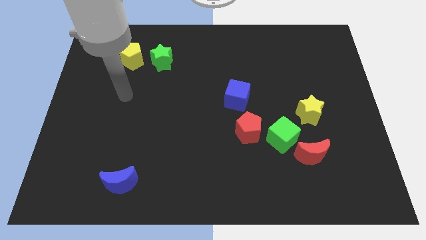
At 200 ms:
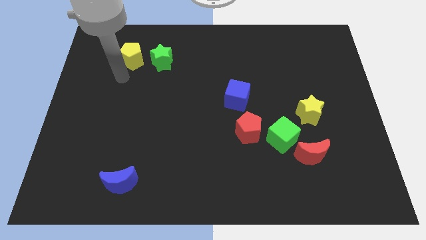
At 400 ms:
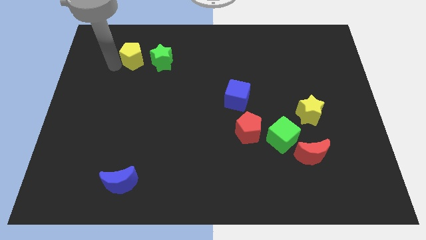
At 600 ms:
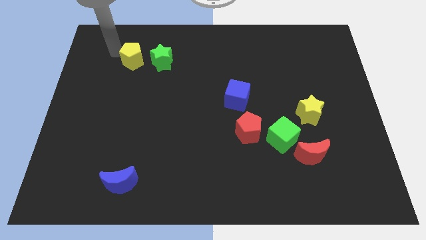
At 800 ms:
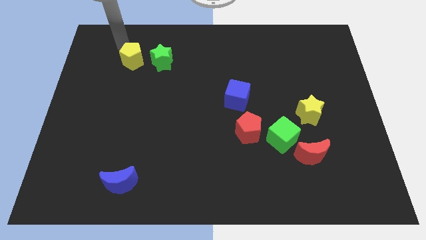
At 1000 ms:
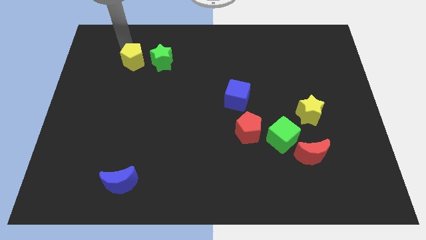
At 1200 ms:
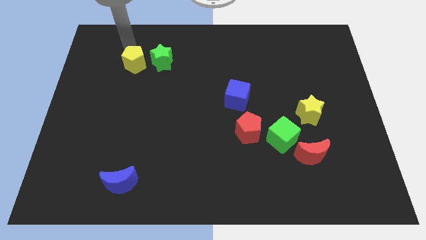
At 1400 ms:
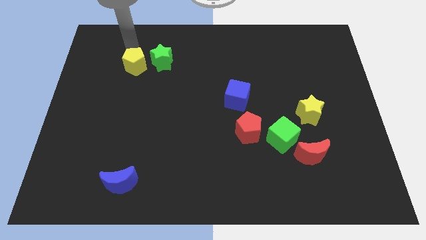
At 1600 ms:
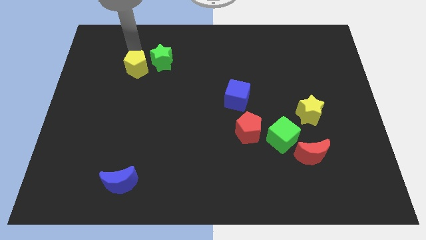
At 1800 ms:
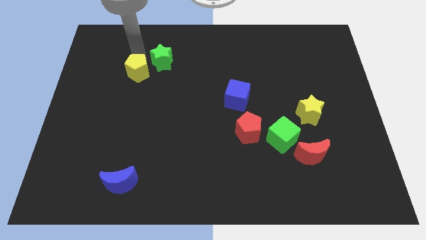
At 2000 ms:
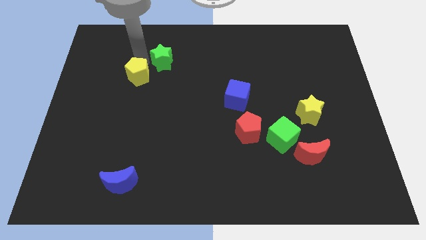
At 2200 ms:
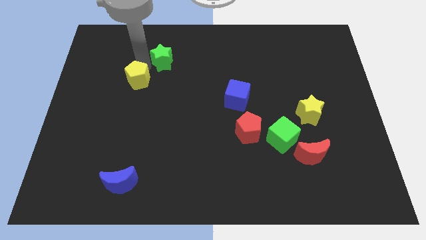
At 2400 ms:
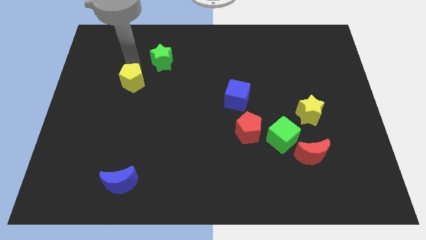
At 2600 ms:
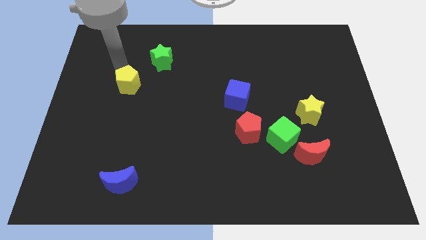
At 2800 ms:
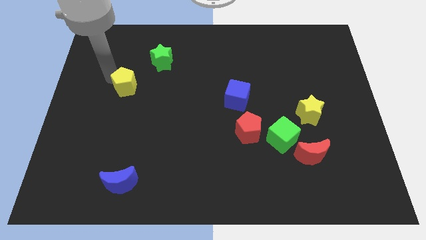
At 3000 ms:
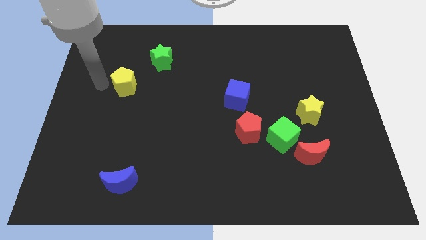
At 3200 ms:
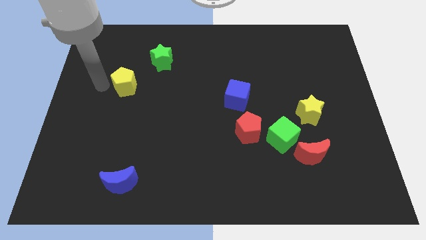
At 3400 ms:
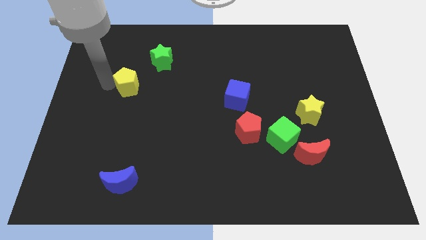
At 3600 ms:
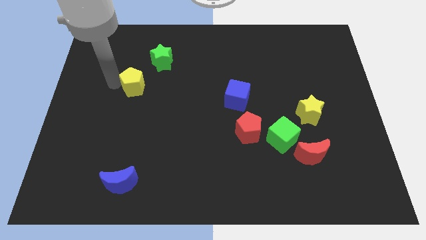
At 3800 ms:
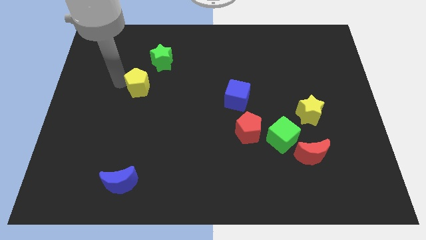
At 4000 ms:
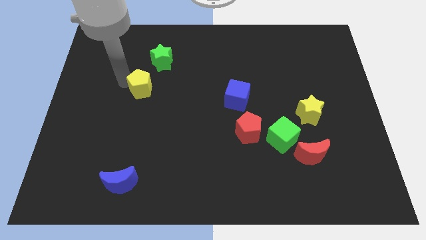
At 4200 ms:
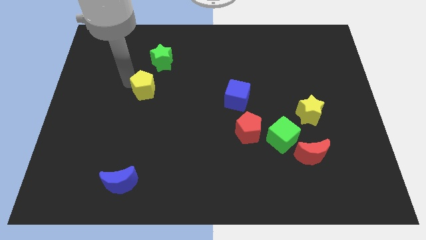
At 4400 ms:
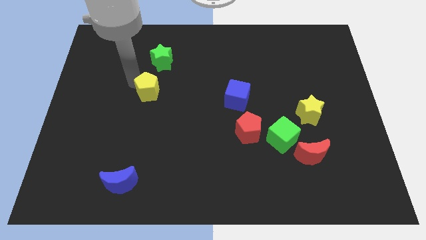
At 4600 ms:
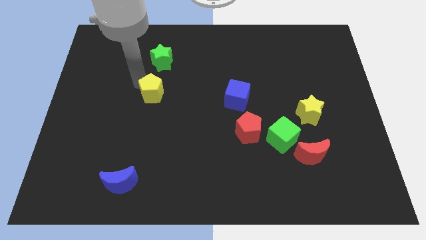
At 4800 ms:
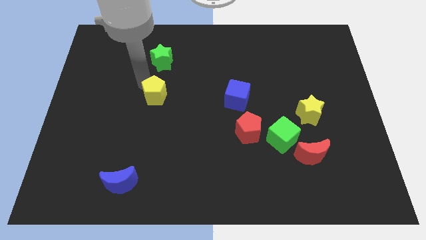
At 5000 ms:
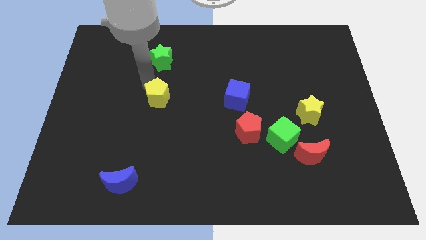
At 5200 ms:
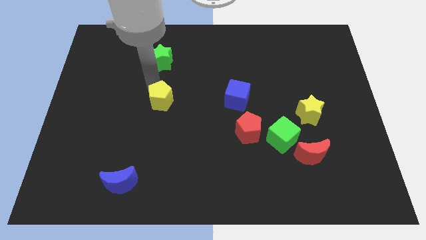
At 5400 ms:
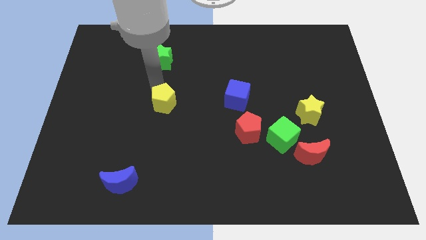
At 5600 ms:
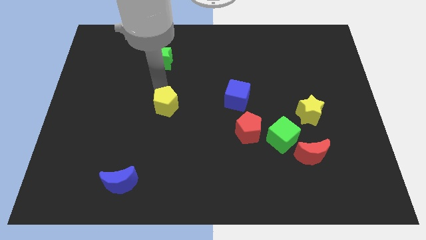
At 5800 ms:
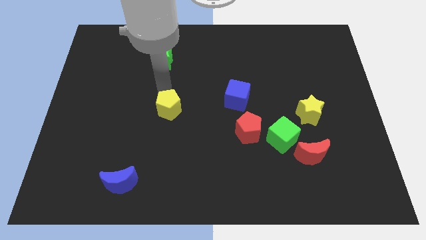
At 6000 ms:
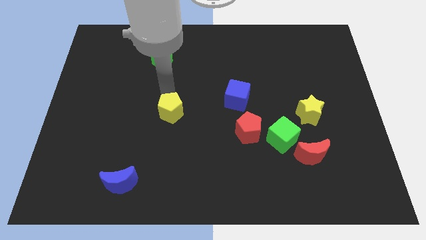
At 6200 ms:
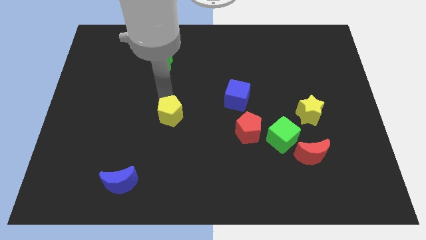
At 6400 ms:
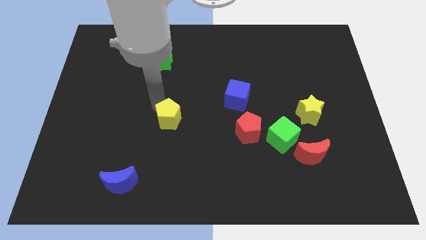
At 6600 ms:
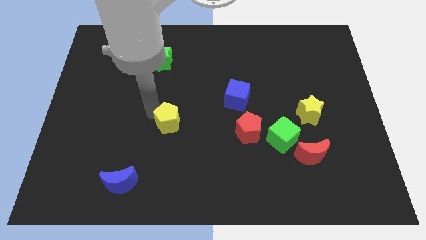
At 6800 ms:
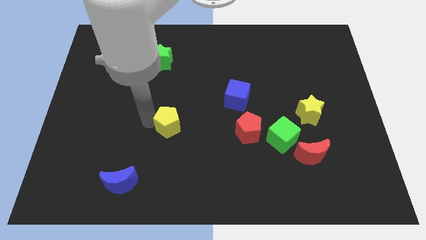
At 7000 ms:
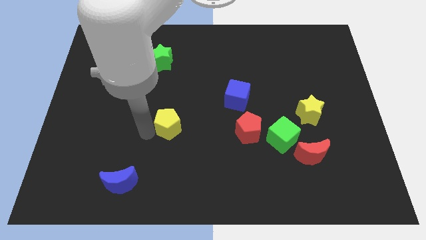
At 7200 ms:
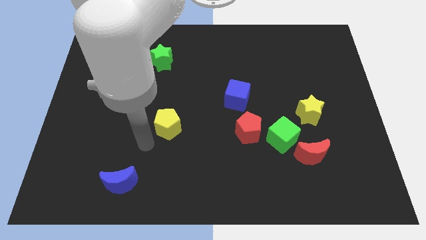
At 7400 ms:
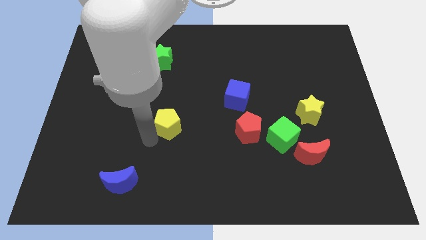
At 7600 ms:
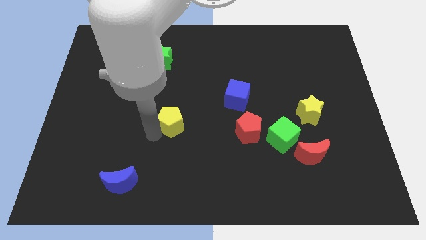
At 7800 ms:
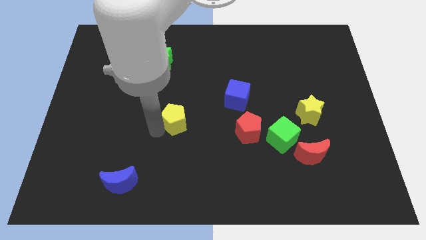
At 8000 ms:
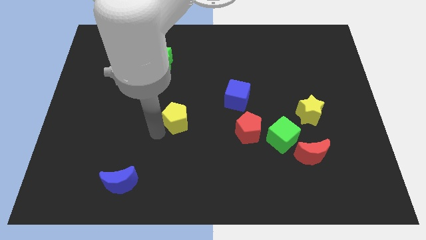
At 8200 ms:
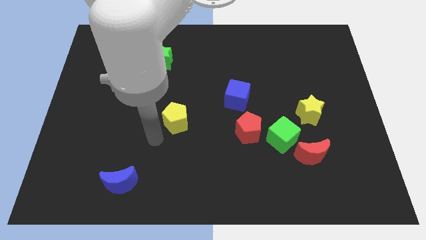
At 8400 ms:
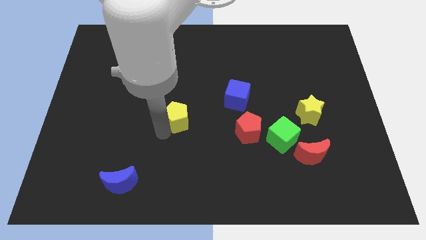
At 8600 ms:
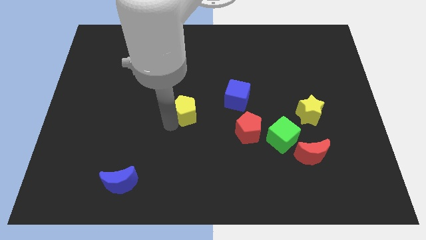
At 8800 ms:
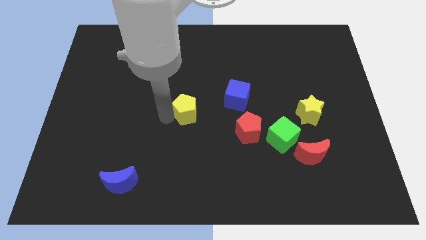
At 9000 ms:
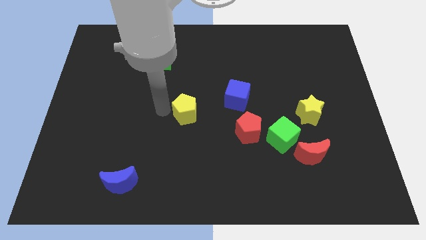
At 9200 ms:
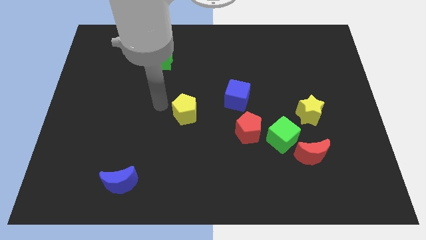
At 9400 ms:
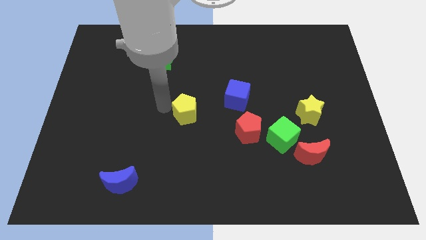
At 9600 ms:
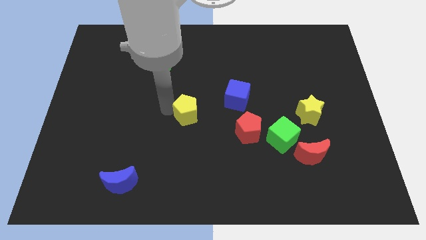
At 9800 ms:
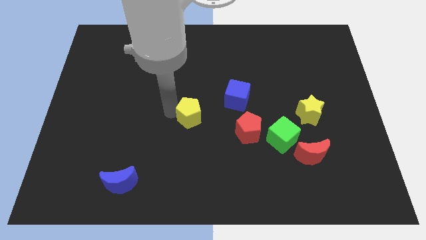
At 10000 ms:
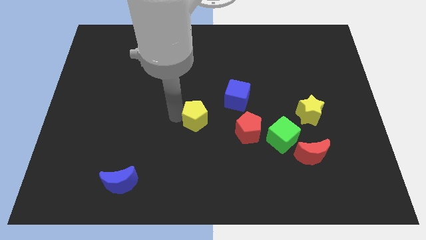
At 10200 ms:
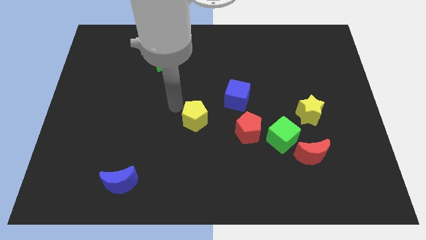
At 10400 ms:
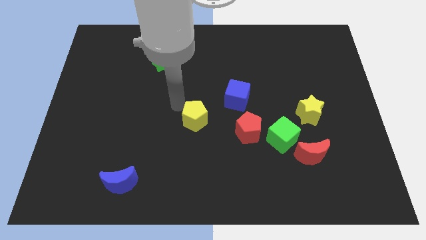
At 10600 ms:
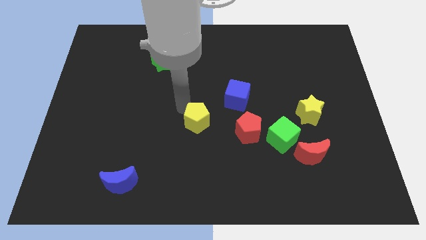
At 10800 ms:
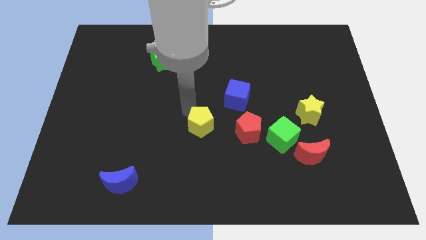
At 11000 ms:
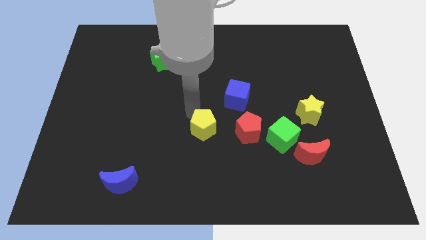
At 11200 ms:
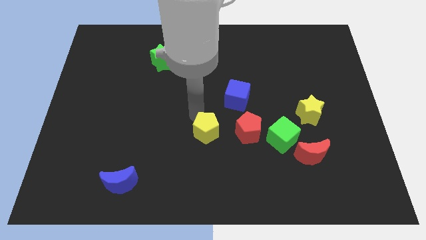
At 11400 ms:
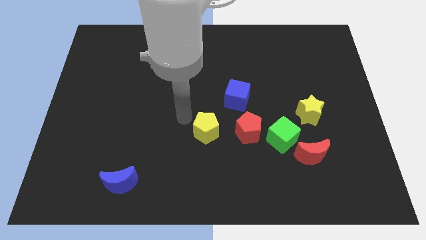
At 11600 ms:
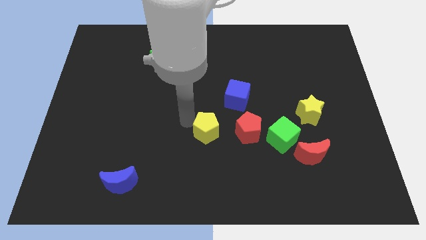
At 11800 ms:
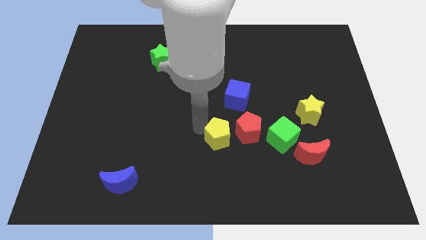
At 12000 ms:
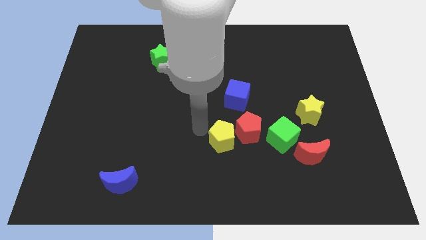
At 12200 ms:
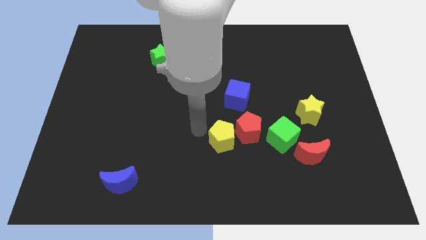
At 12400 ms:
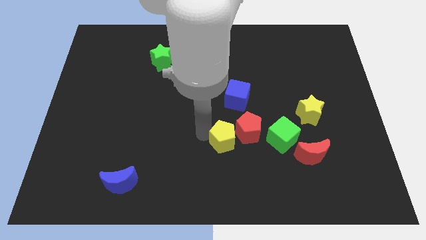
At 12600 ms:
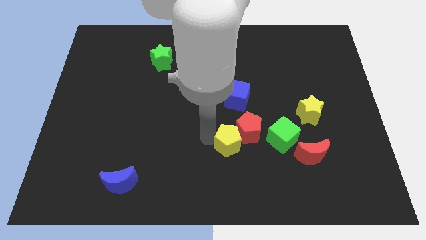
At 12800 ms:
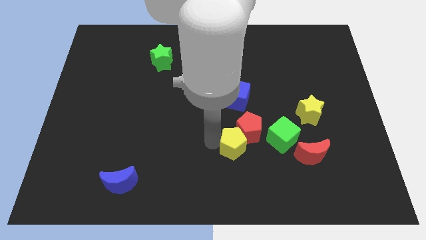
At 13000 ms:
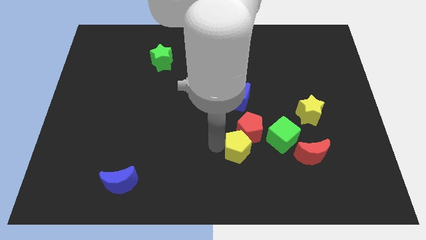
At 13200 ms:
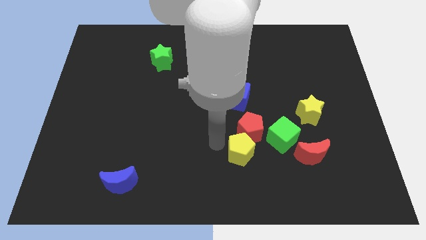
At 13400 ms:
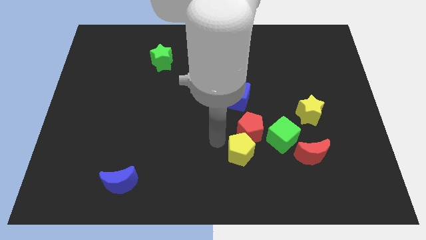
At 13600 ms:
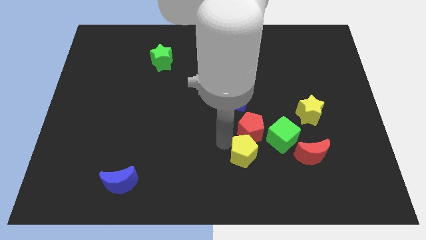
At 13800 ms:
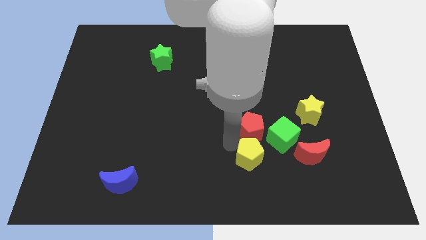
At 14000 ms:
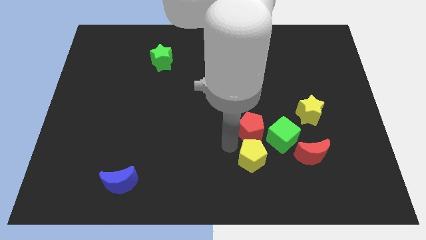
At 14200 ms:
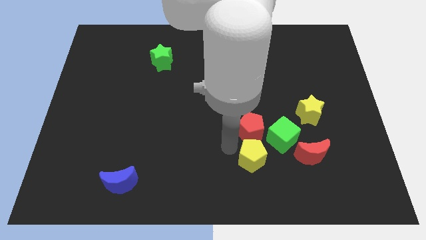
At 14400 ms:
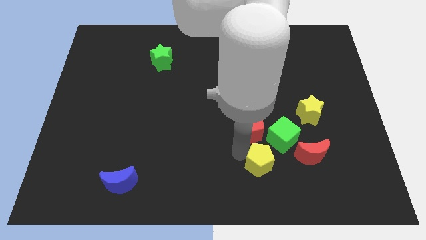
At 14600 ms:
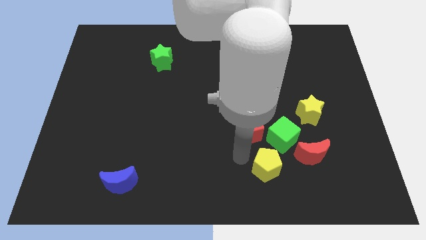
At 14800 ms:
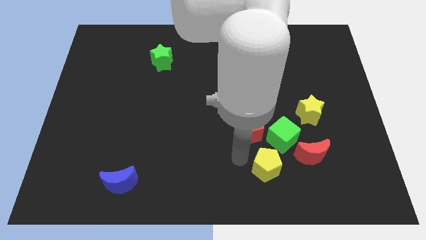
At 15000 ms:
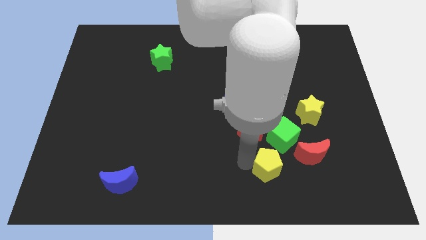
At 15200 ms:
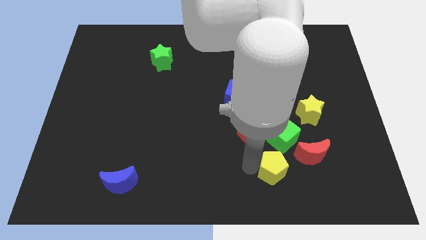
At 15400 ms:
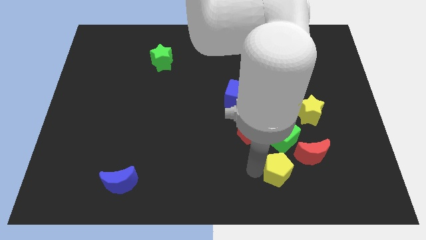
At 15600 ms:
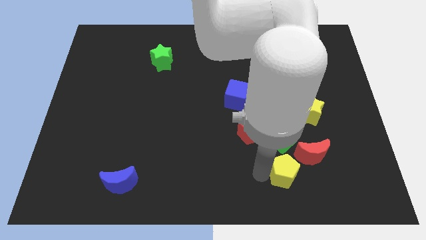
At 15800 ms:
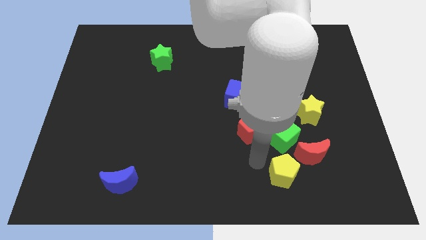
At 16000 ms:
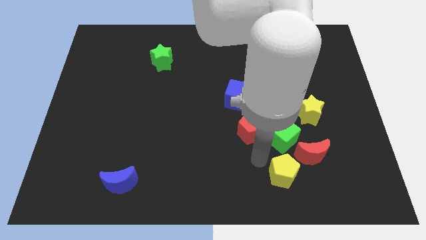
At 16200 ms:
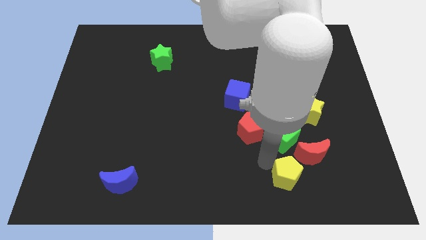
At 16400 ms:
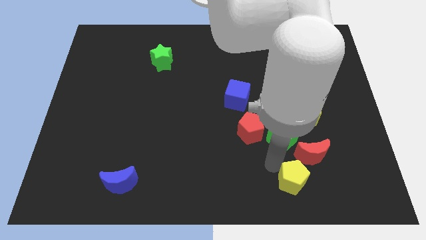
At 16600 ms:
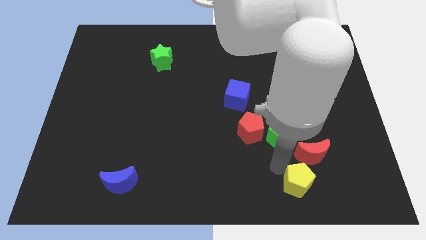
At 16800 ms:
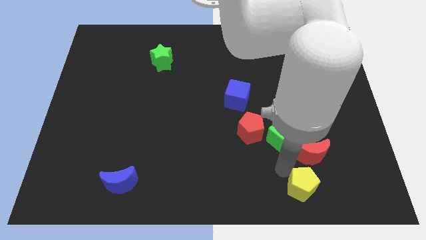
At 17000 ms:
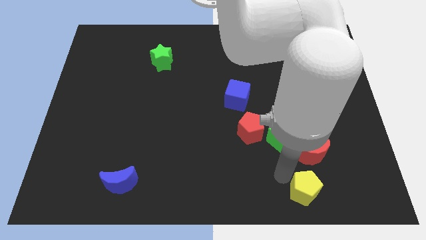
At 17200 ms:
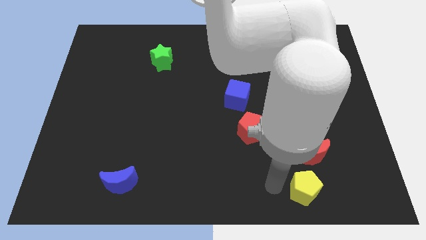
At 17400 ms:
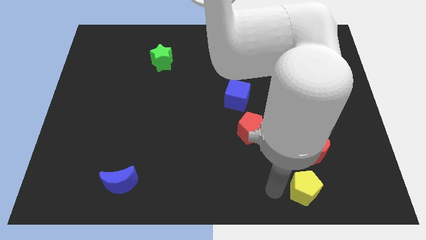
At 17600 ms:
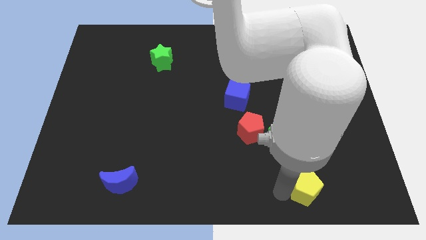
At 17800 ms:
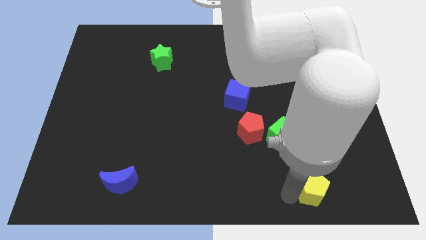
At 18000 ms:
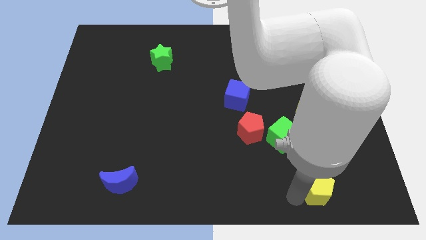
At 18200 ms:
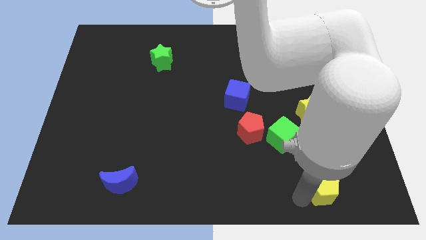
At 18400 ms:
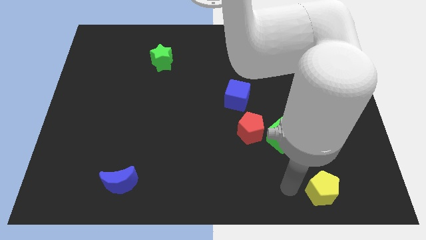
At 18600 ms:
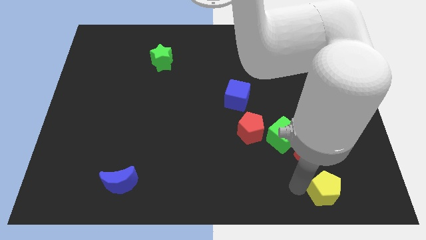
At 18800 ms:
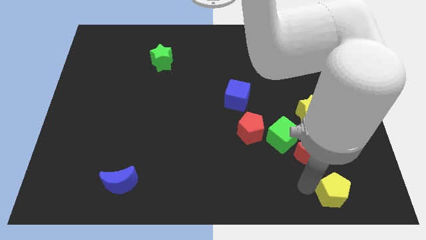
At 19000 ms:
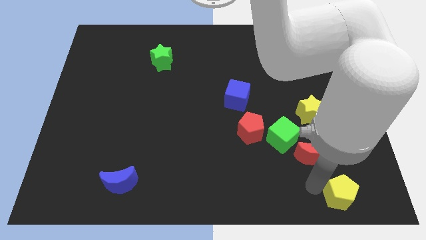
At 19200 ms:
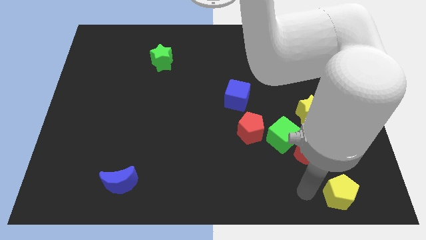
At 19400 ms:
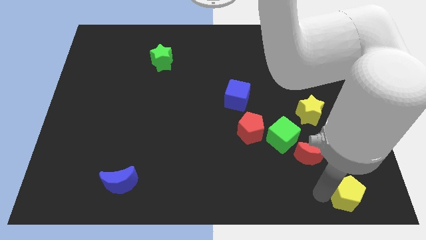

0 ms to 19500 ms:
push the yellow pentagon to the bottom right corner
